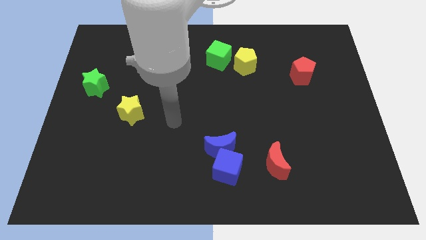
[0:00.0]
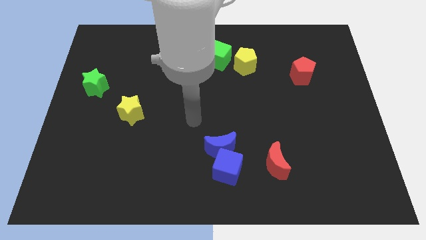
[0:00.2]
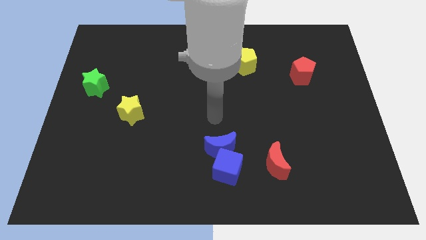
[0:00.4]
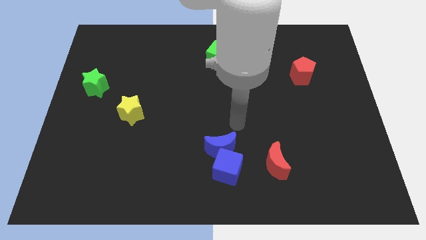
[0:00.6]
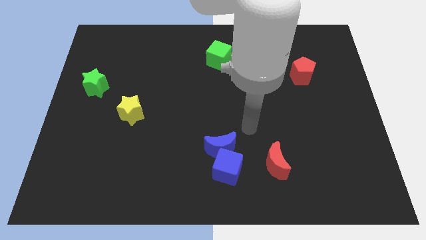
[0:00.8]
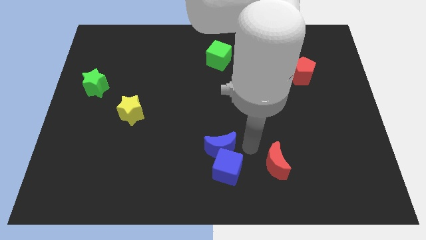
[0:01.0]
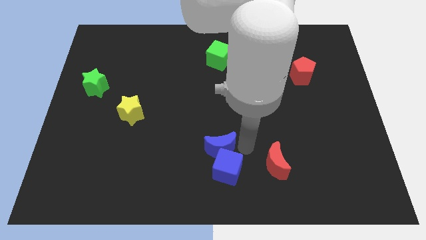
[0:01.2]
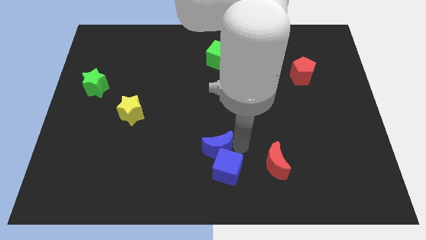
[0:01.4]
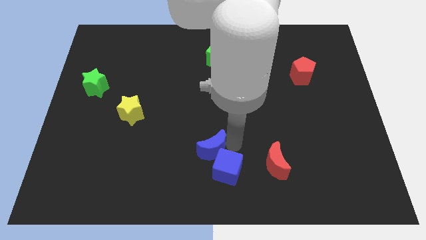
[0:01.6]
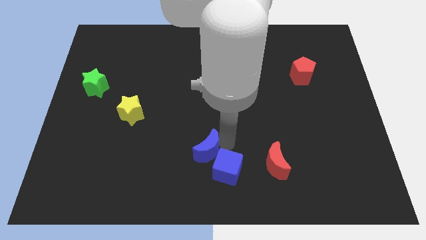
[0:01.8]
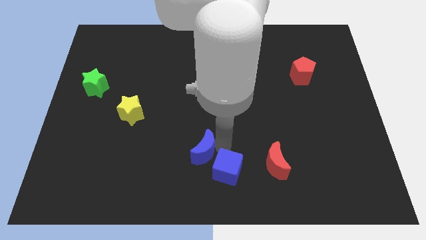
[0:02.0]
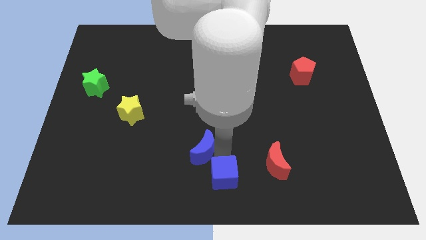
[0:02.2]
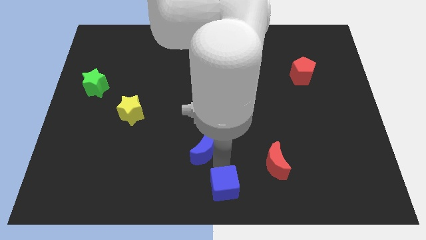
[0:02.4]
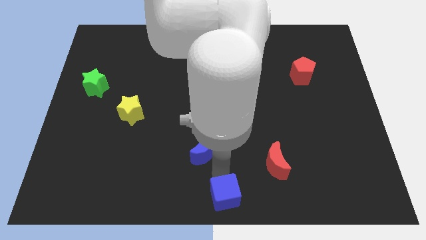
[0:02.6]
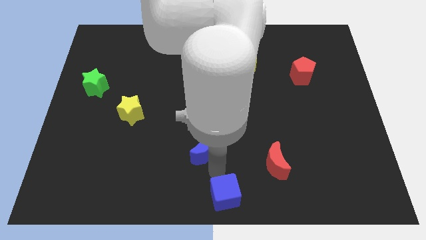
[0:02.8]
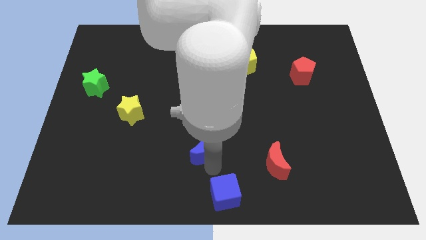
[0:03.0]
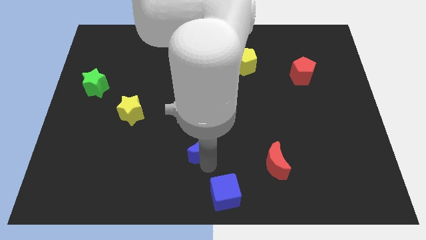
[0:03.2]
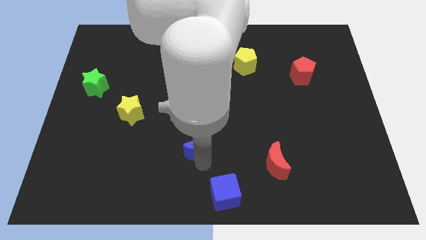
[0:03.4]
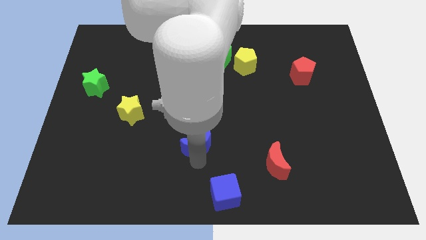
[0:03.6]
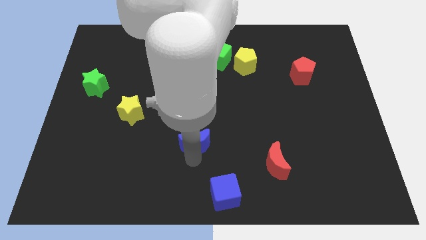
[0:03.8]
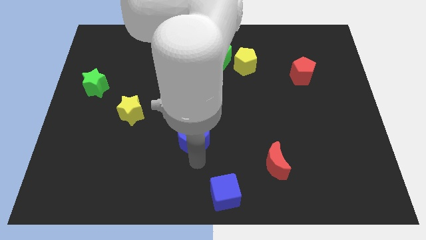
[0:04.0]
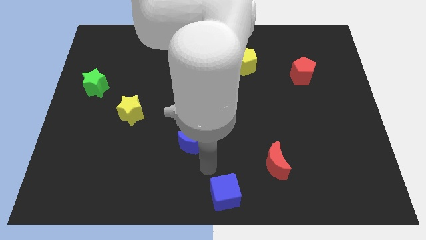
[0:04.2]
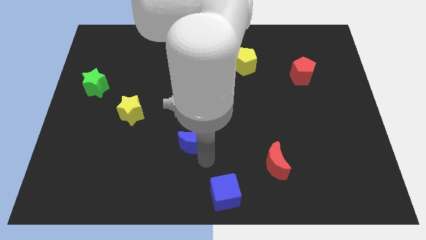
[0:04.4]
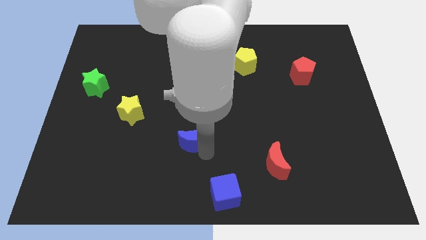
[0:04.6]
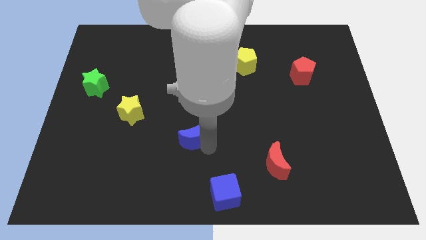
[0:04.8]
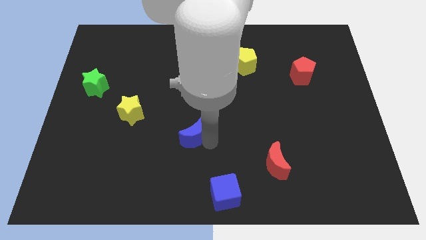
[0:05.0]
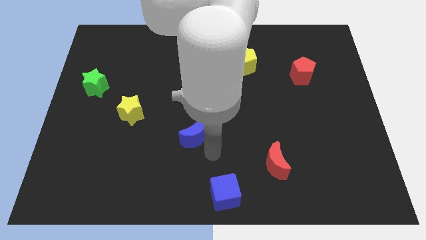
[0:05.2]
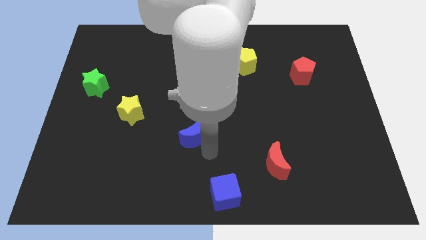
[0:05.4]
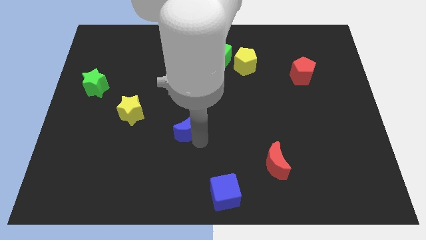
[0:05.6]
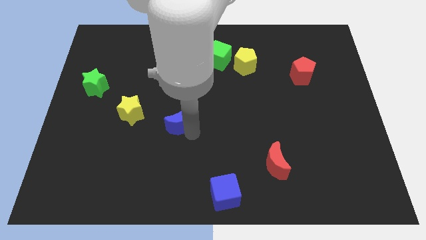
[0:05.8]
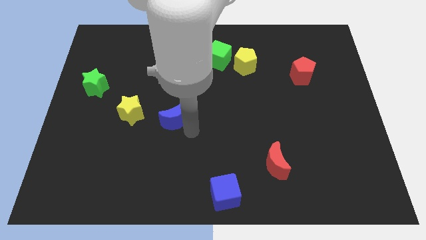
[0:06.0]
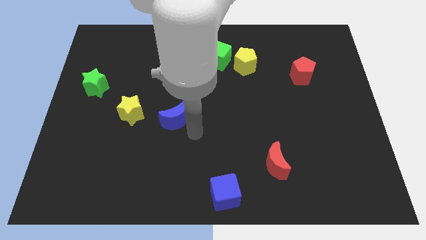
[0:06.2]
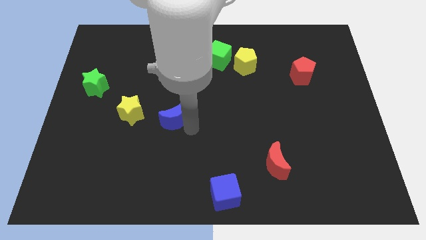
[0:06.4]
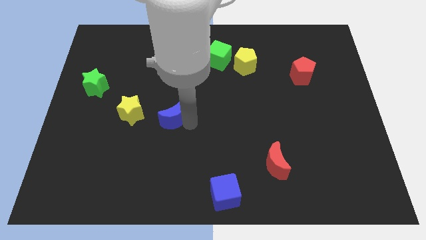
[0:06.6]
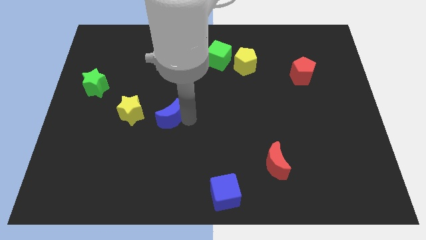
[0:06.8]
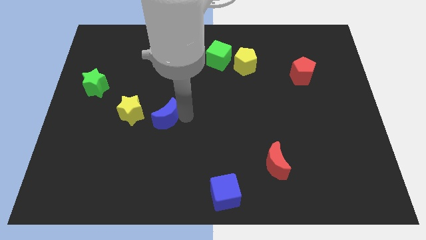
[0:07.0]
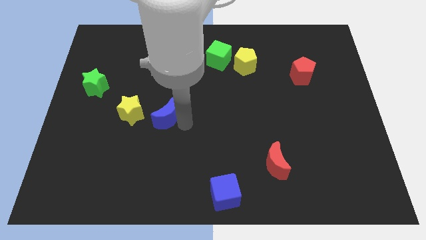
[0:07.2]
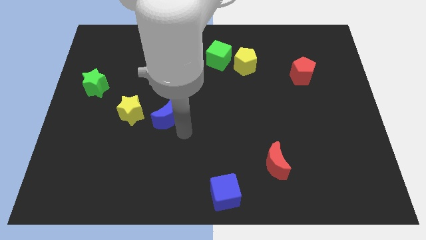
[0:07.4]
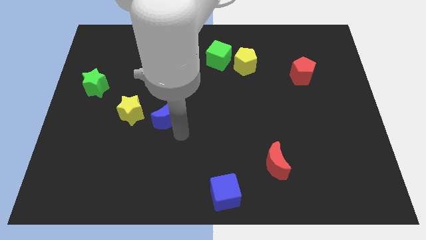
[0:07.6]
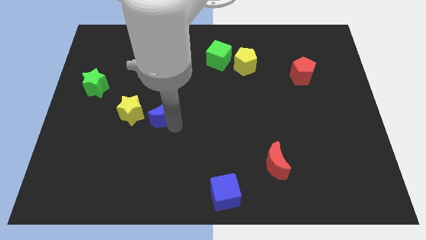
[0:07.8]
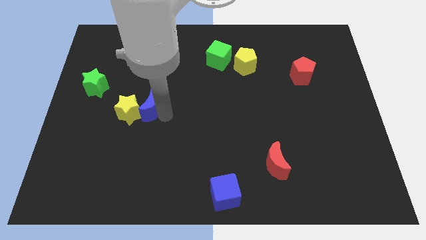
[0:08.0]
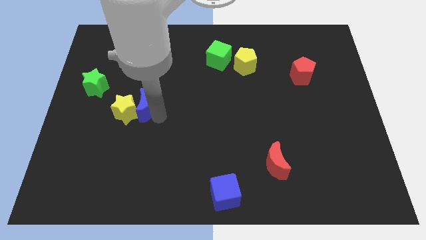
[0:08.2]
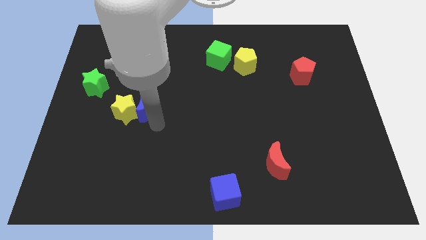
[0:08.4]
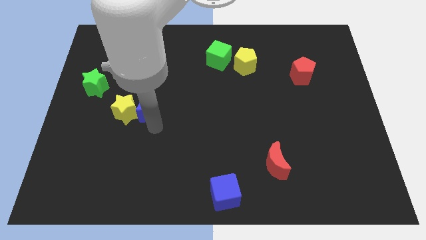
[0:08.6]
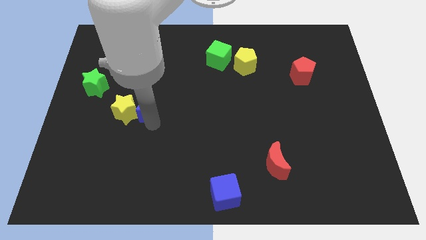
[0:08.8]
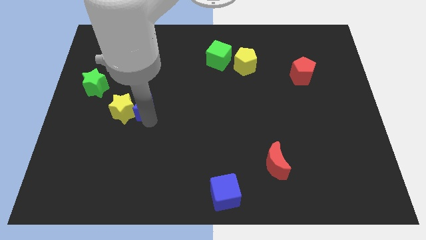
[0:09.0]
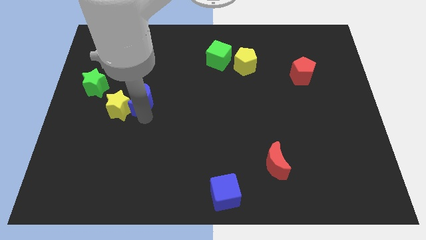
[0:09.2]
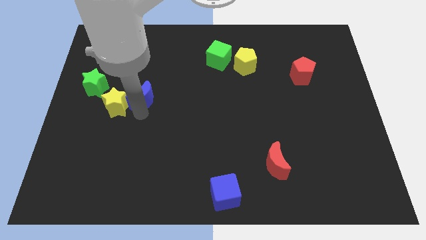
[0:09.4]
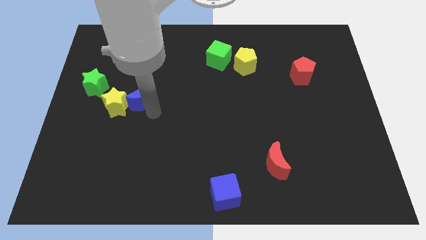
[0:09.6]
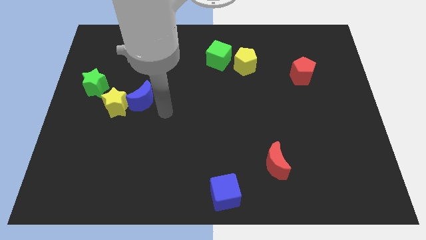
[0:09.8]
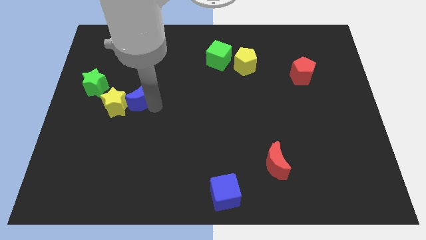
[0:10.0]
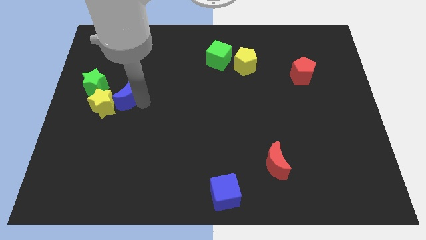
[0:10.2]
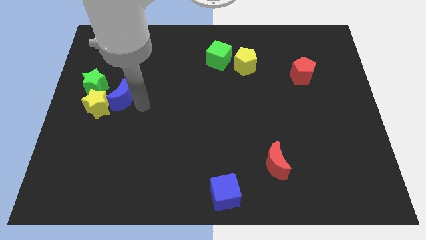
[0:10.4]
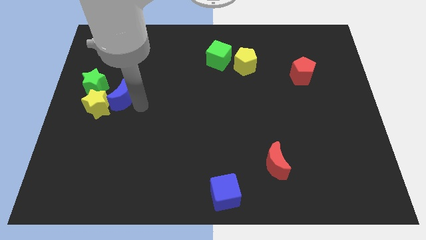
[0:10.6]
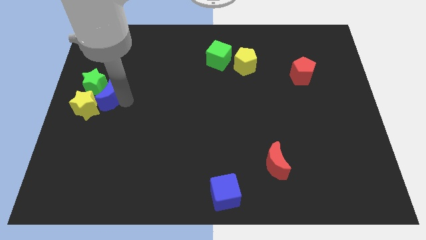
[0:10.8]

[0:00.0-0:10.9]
slide the blue moon close to the green star

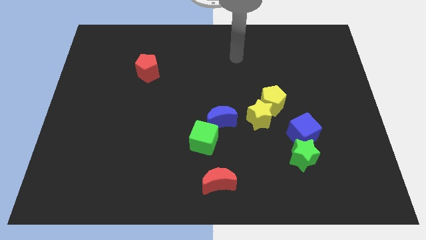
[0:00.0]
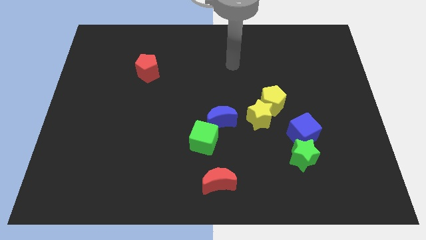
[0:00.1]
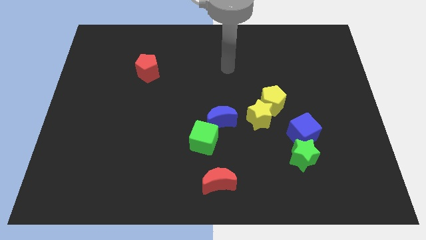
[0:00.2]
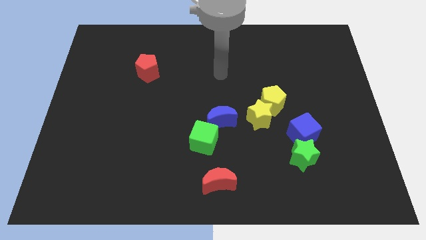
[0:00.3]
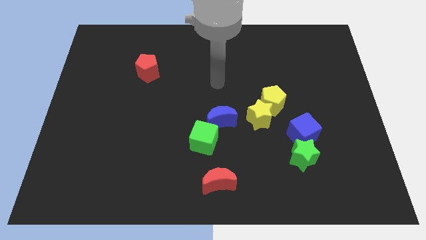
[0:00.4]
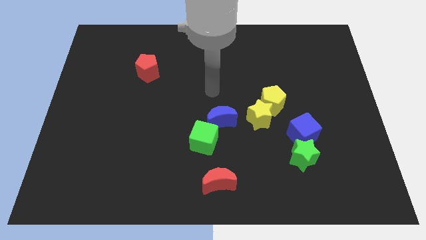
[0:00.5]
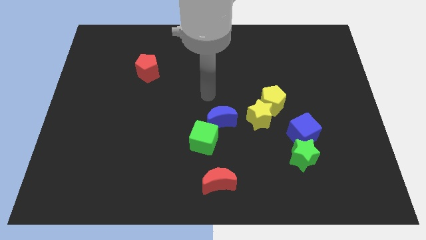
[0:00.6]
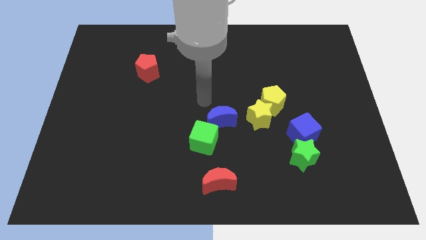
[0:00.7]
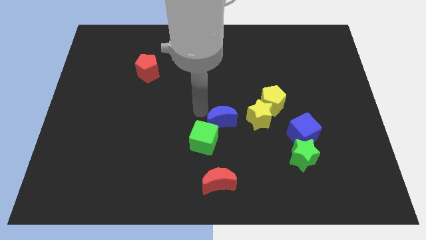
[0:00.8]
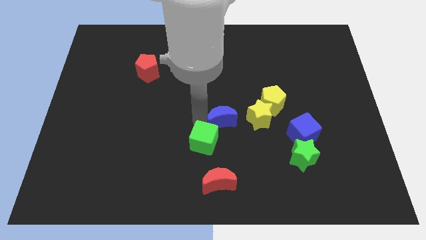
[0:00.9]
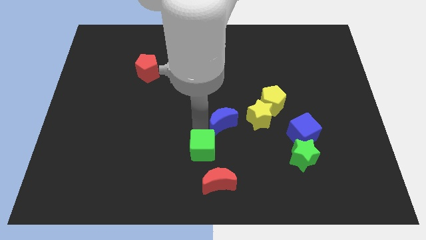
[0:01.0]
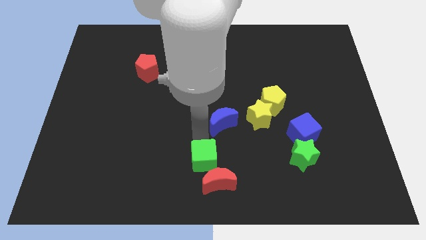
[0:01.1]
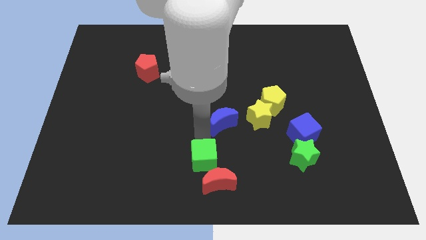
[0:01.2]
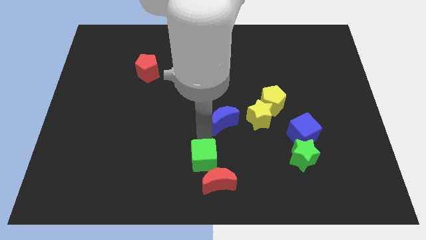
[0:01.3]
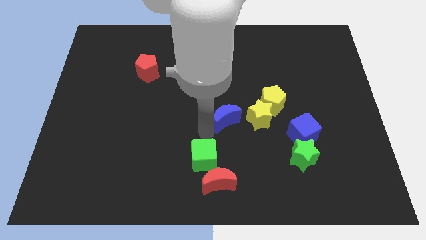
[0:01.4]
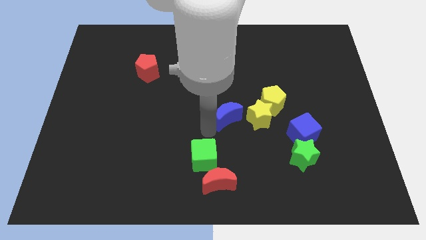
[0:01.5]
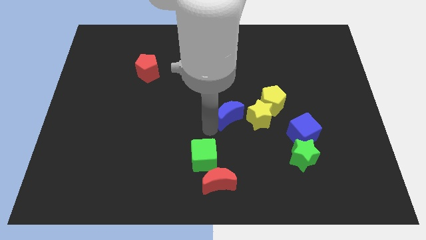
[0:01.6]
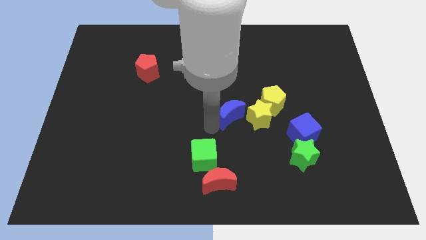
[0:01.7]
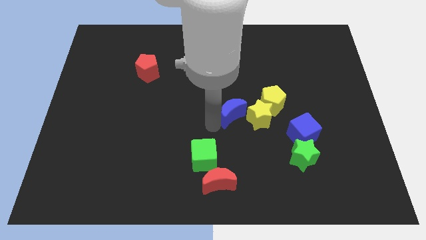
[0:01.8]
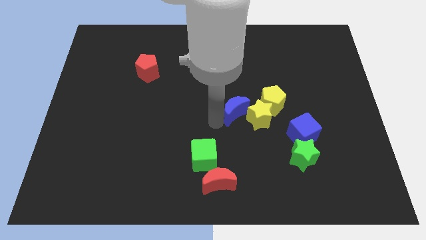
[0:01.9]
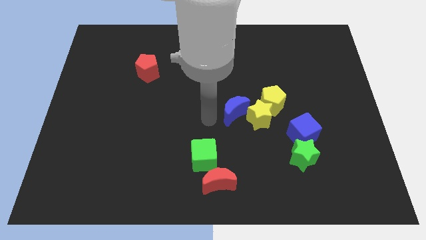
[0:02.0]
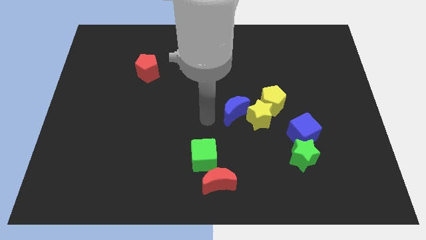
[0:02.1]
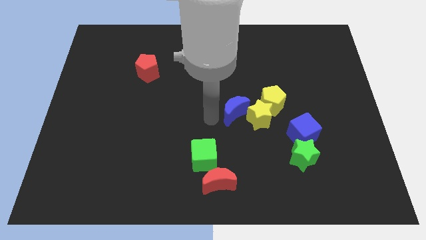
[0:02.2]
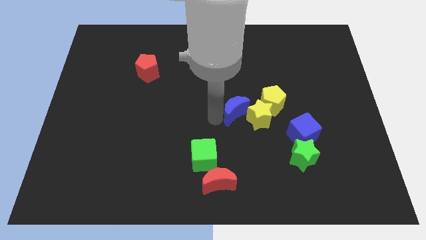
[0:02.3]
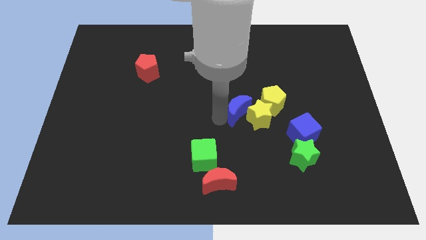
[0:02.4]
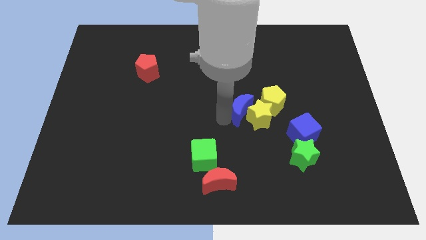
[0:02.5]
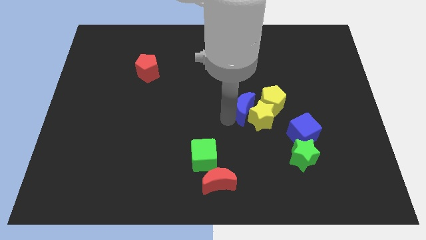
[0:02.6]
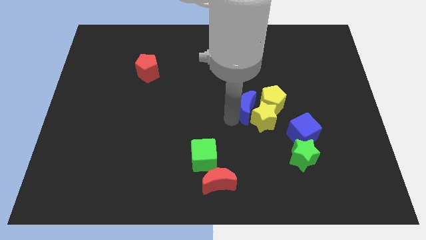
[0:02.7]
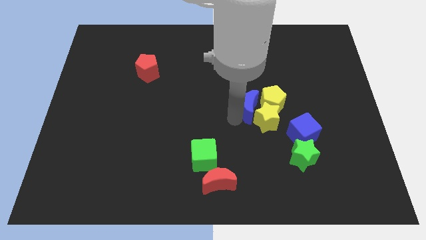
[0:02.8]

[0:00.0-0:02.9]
slide the blue moon close to the yellow pentagon
